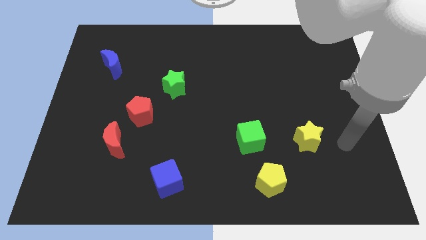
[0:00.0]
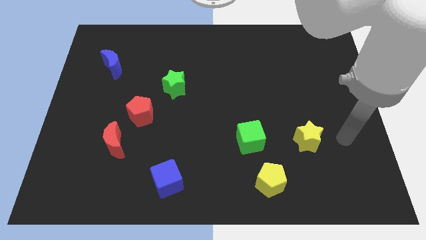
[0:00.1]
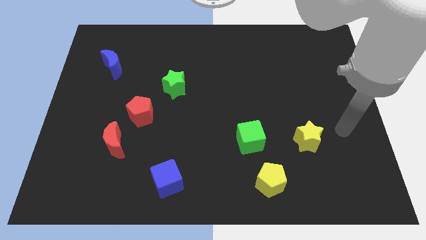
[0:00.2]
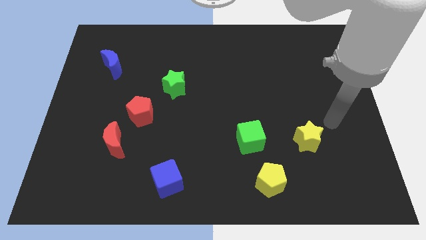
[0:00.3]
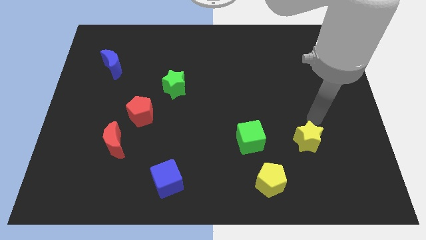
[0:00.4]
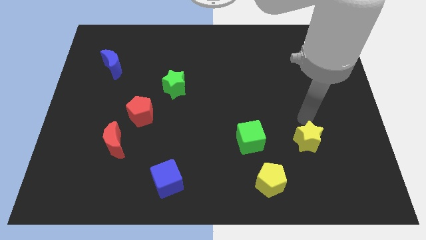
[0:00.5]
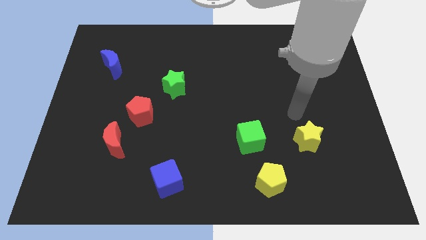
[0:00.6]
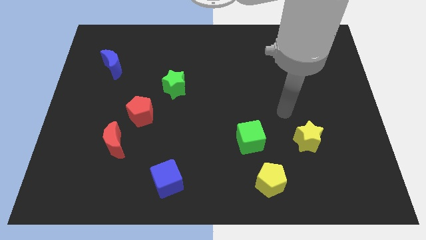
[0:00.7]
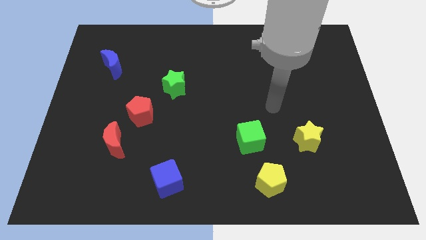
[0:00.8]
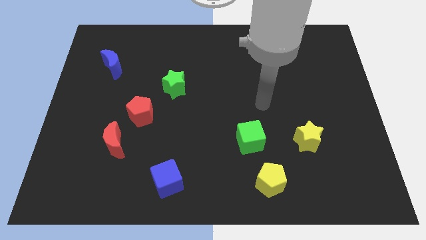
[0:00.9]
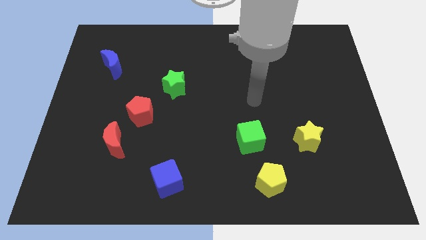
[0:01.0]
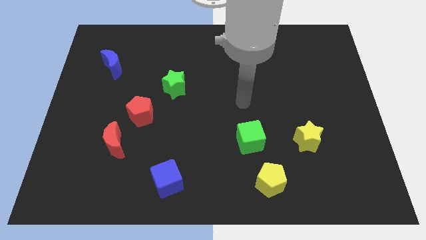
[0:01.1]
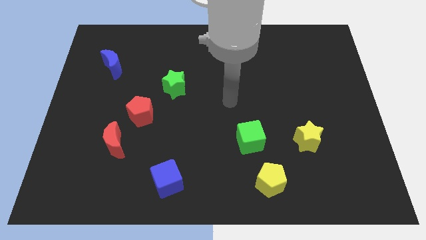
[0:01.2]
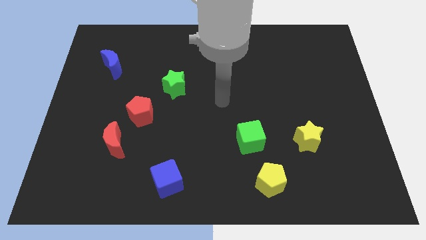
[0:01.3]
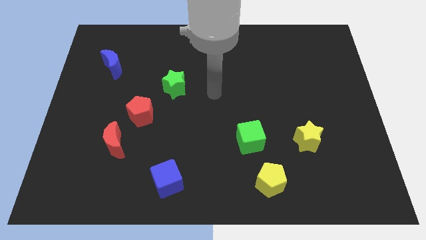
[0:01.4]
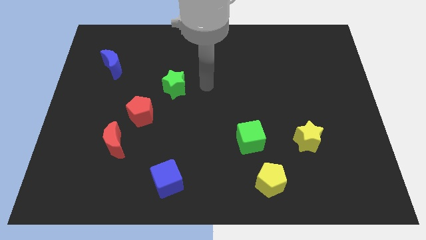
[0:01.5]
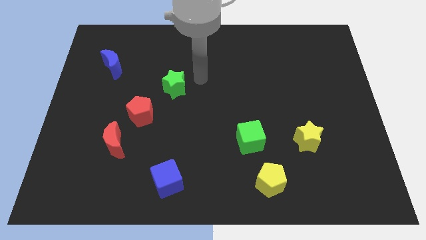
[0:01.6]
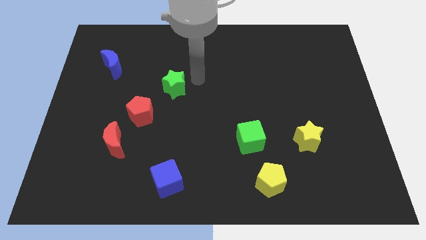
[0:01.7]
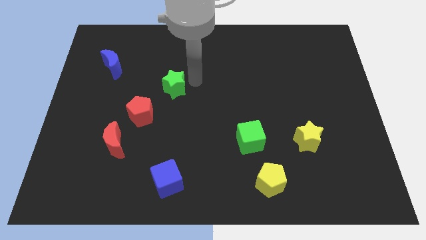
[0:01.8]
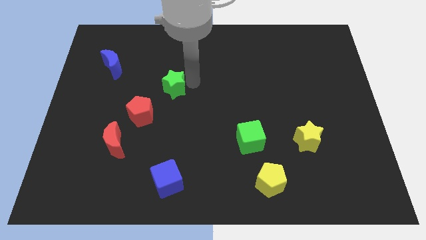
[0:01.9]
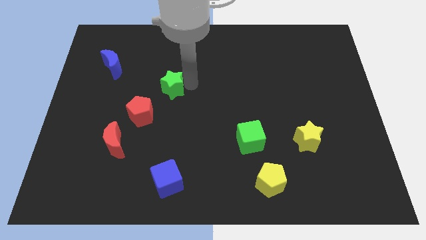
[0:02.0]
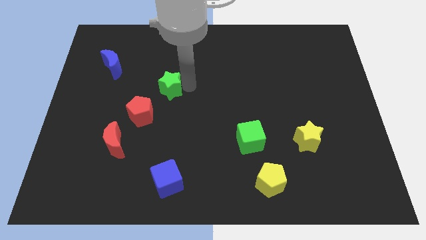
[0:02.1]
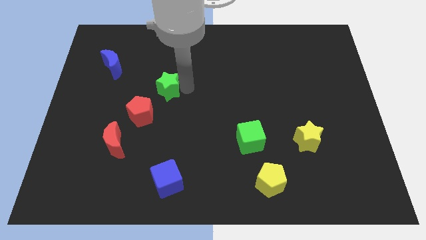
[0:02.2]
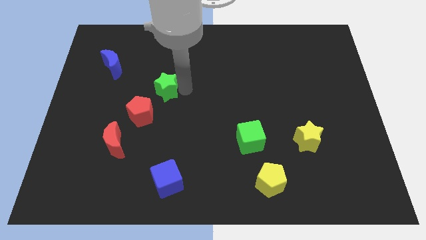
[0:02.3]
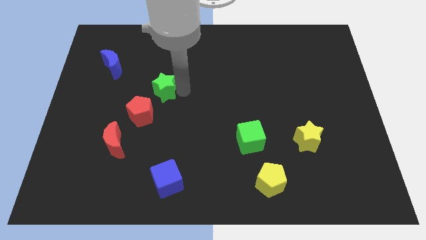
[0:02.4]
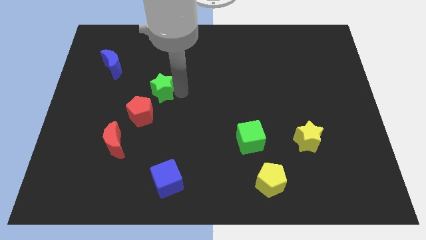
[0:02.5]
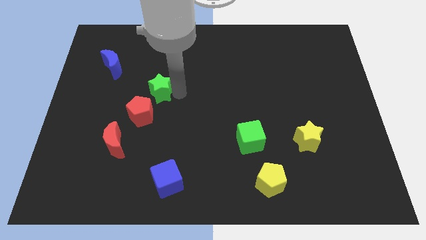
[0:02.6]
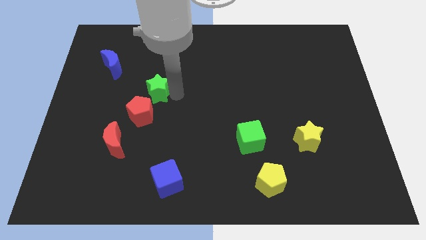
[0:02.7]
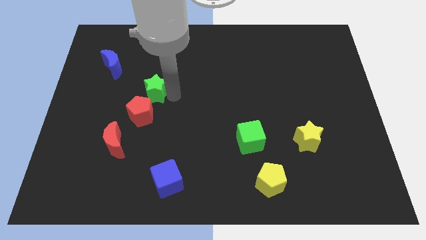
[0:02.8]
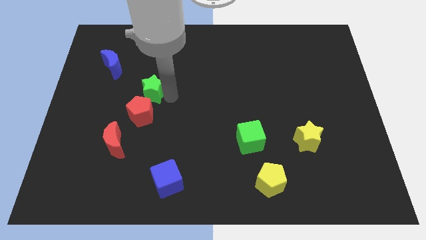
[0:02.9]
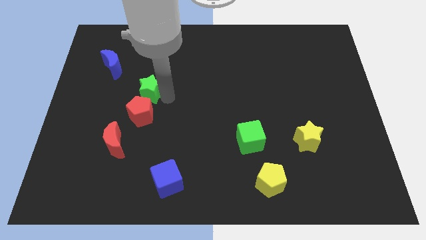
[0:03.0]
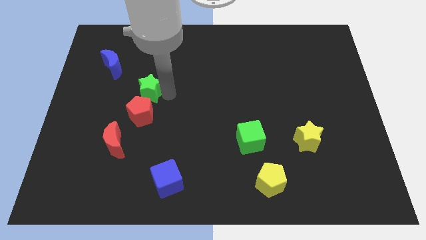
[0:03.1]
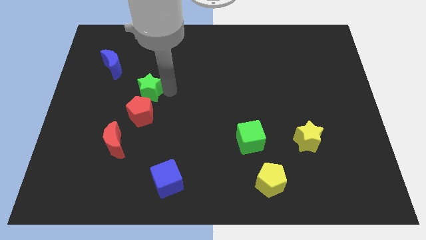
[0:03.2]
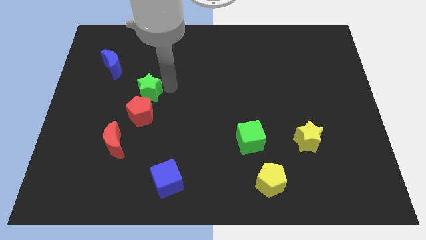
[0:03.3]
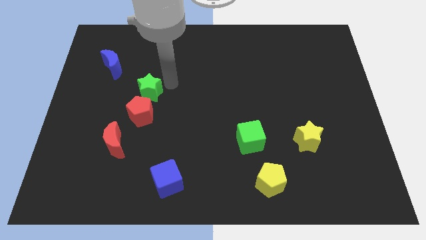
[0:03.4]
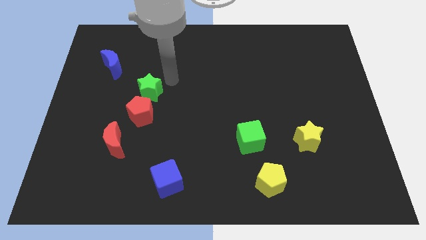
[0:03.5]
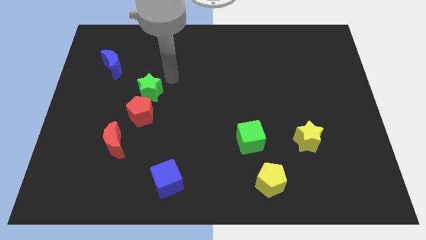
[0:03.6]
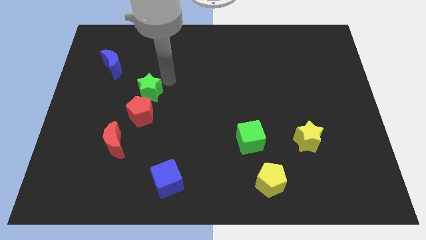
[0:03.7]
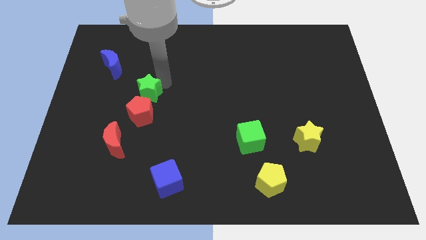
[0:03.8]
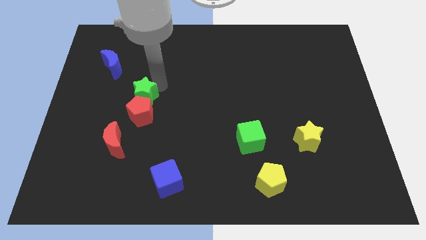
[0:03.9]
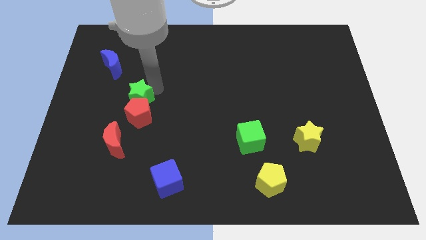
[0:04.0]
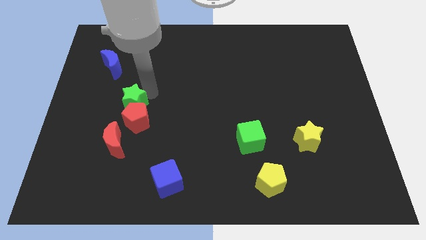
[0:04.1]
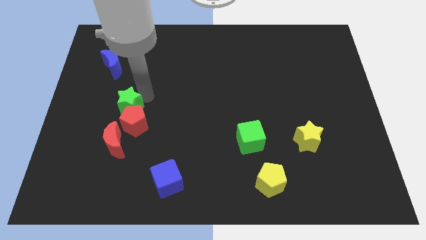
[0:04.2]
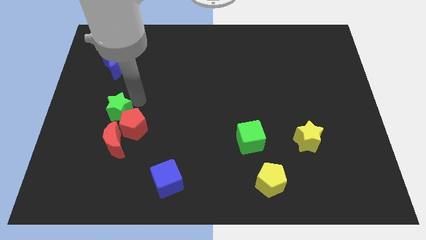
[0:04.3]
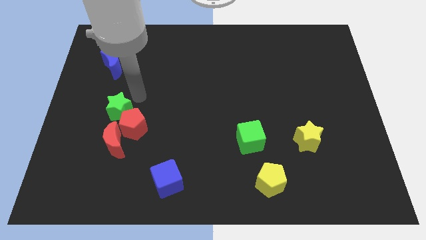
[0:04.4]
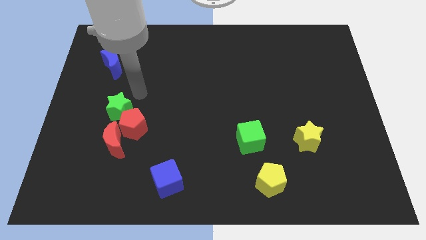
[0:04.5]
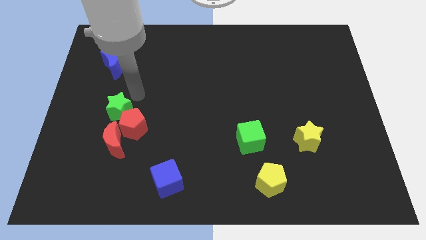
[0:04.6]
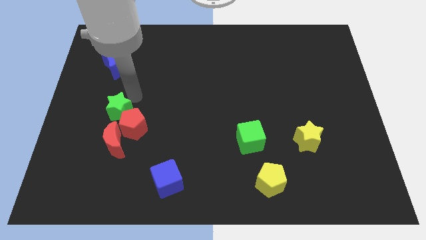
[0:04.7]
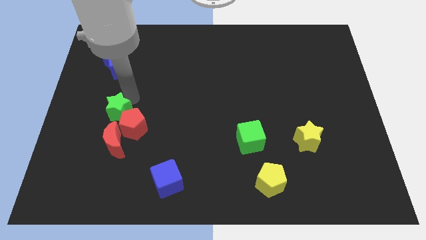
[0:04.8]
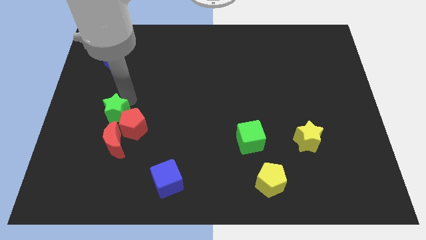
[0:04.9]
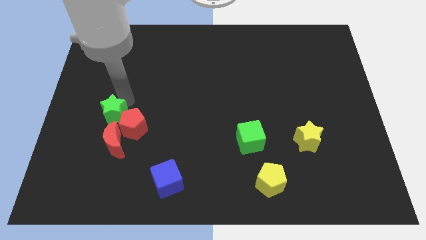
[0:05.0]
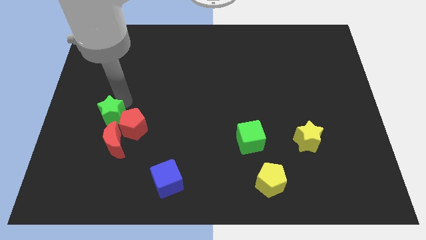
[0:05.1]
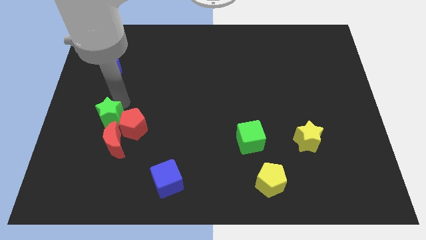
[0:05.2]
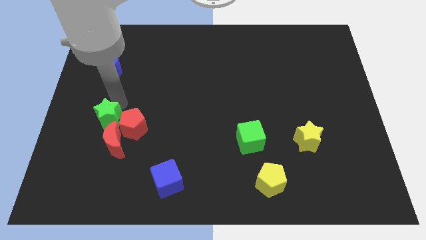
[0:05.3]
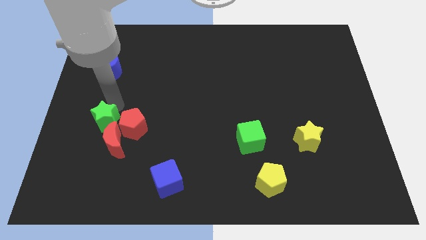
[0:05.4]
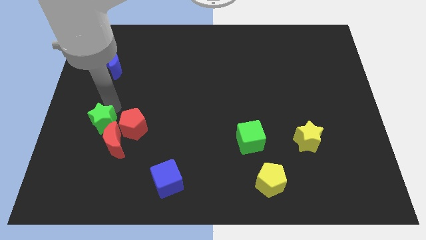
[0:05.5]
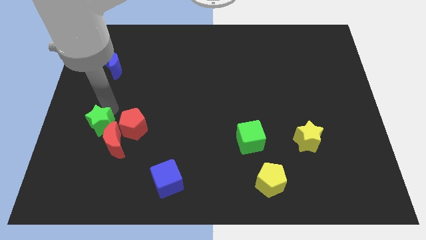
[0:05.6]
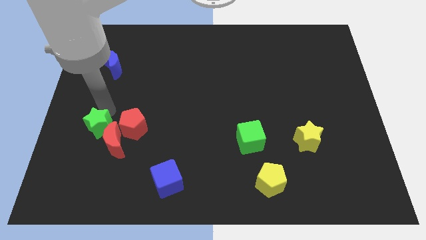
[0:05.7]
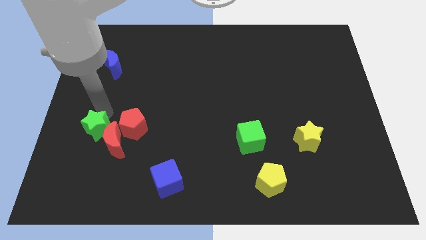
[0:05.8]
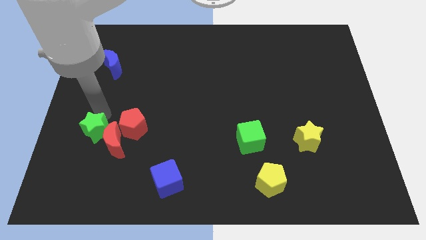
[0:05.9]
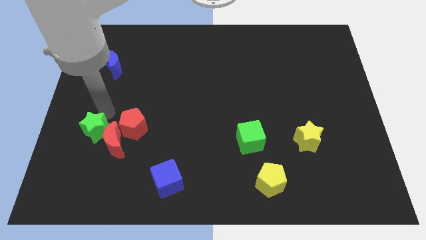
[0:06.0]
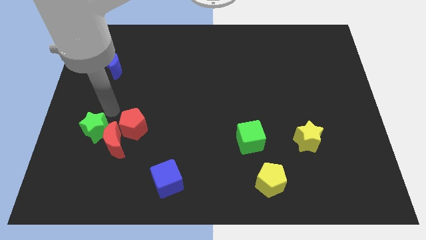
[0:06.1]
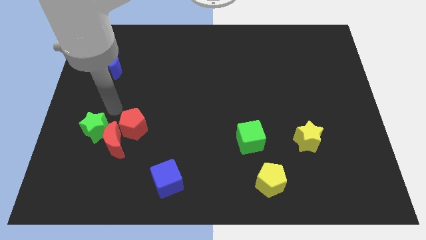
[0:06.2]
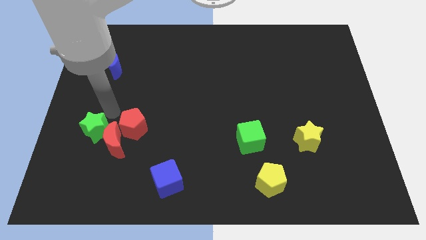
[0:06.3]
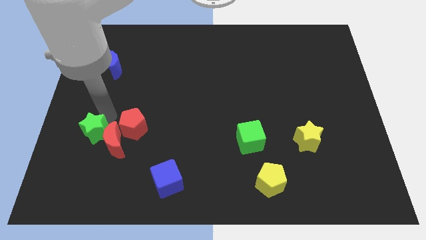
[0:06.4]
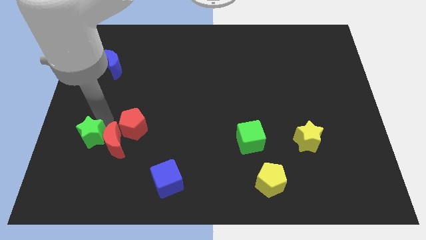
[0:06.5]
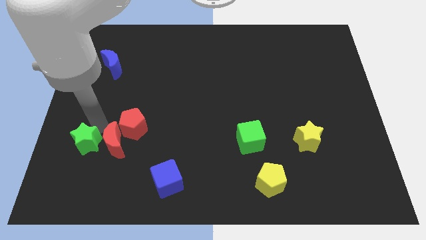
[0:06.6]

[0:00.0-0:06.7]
move the green star to the bottom left side of the red moon
